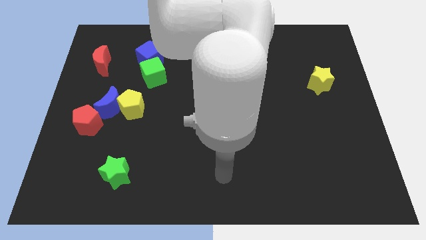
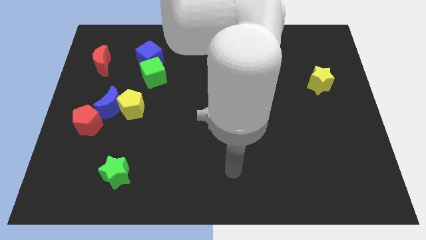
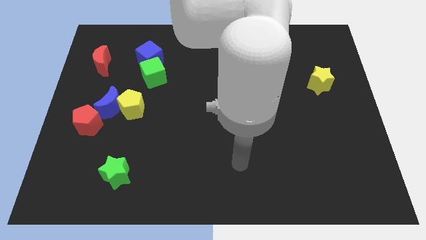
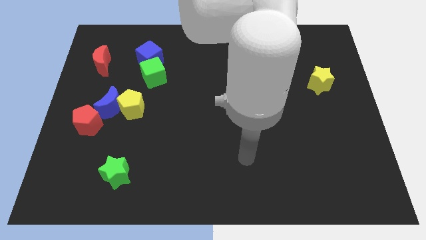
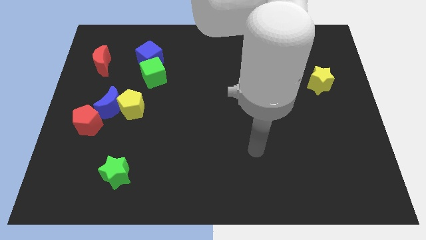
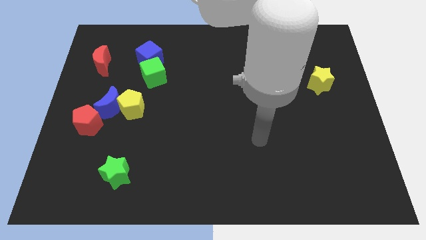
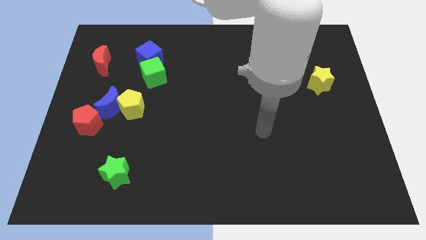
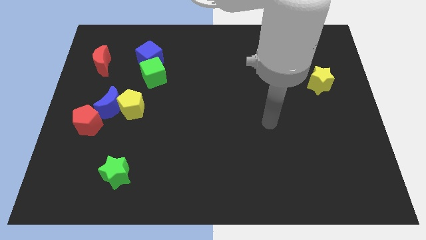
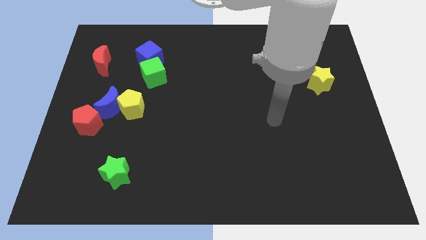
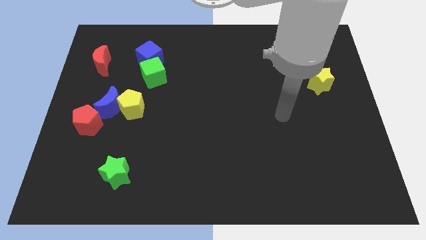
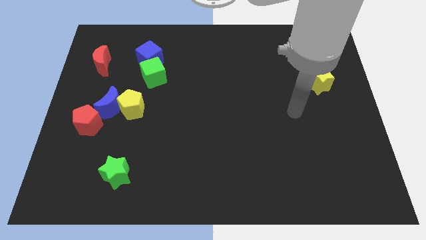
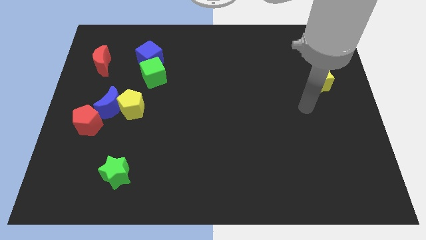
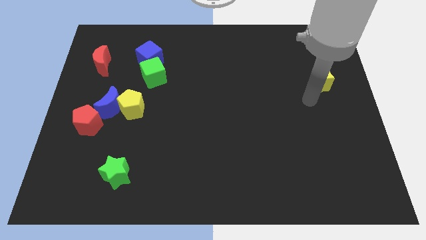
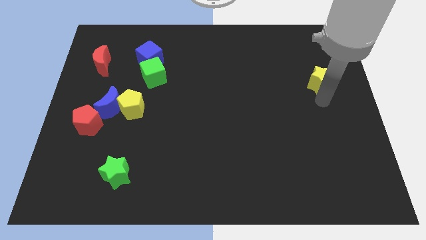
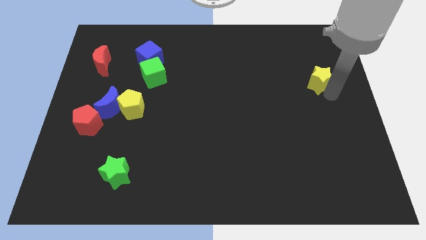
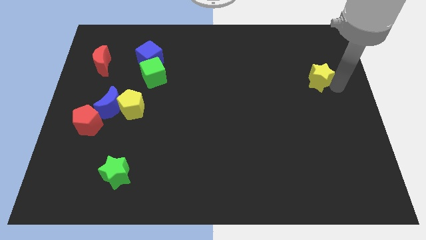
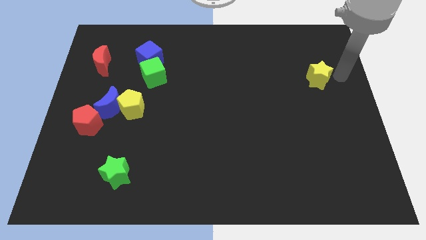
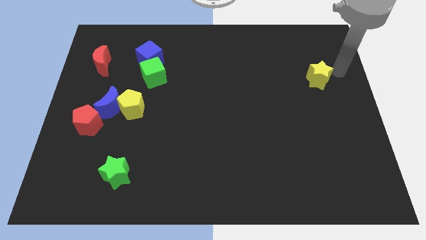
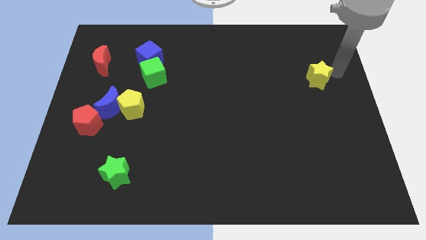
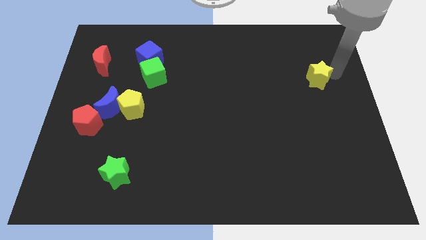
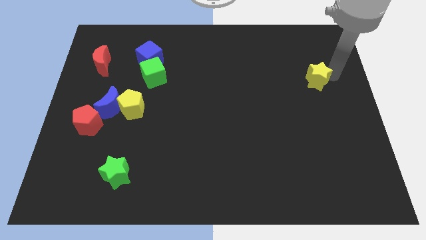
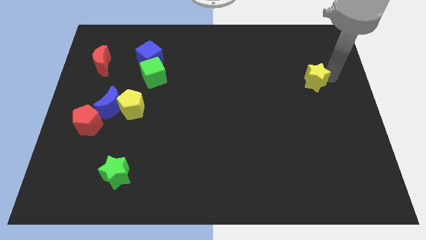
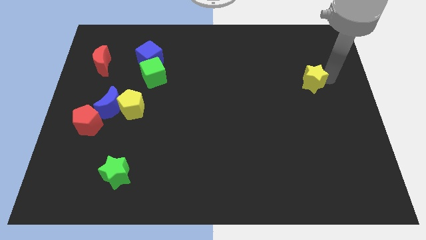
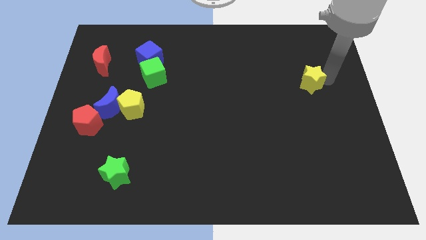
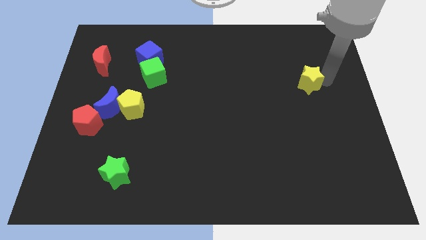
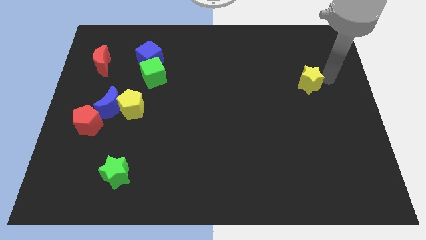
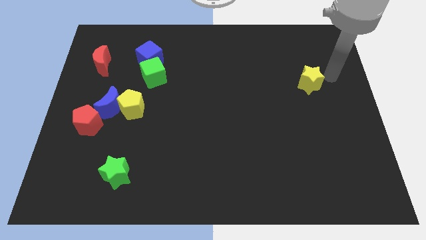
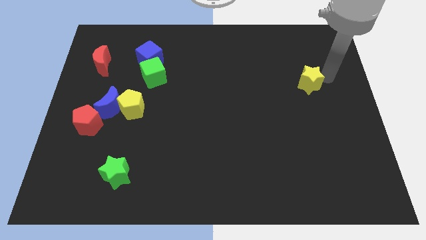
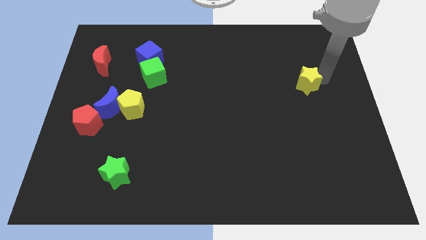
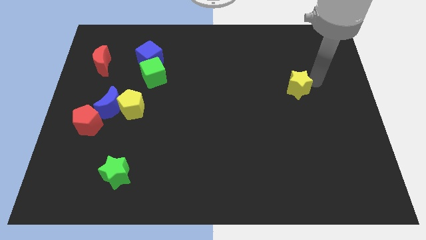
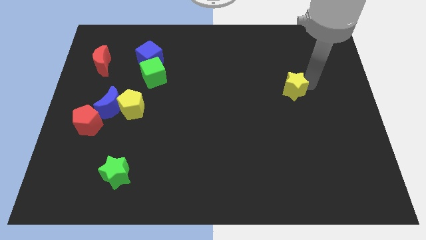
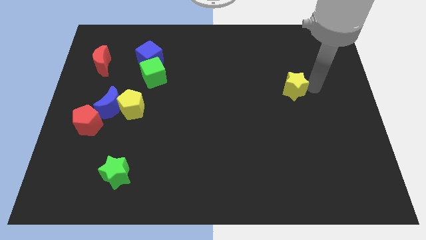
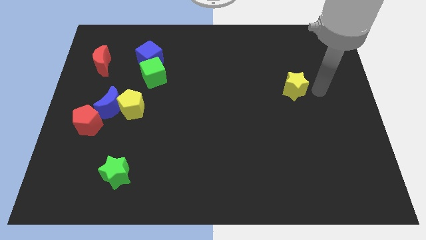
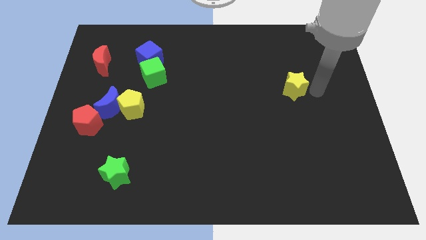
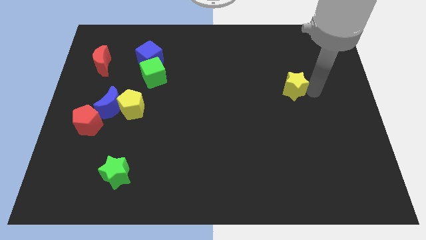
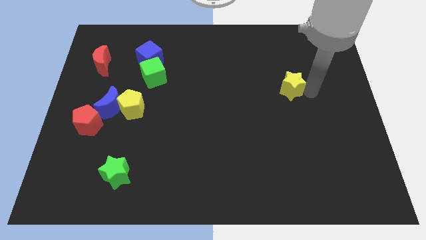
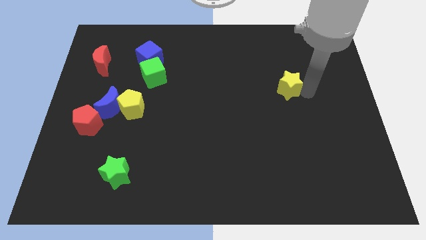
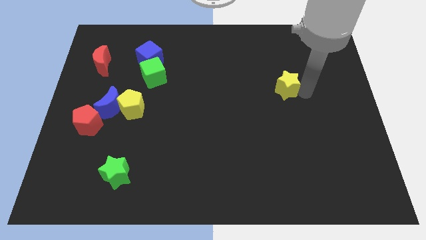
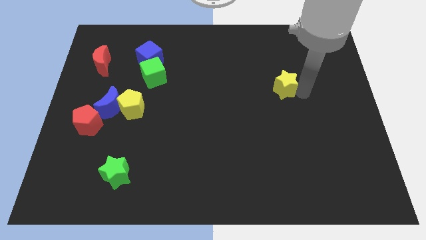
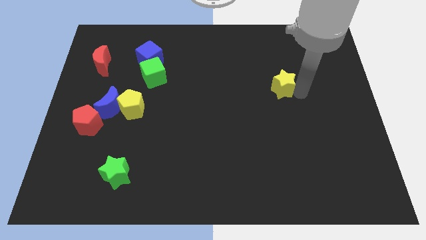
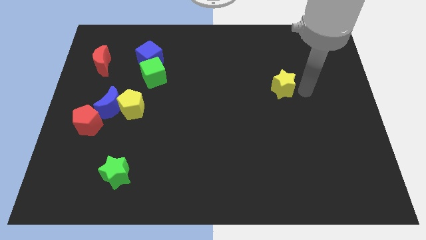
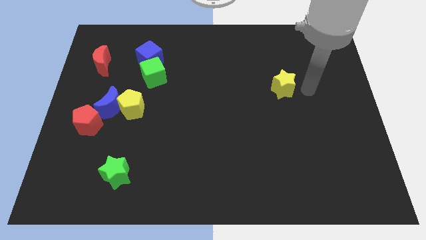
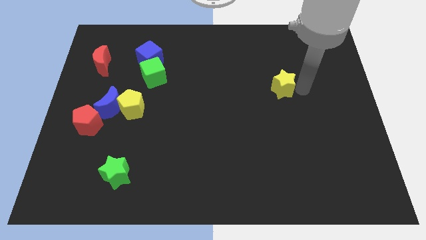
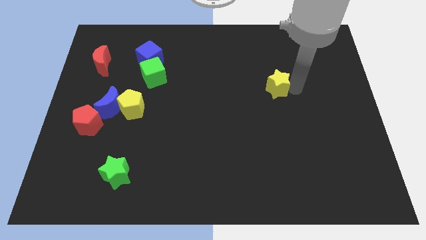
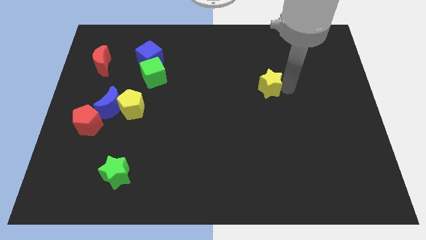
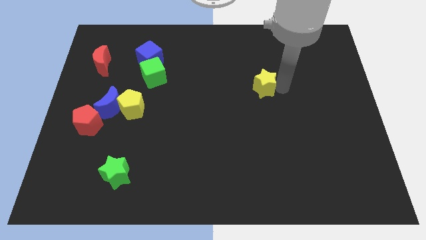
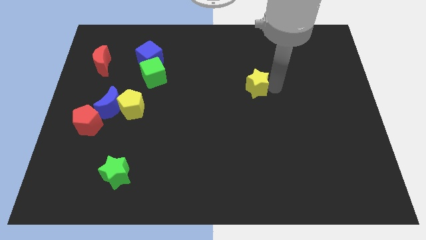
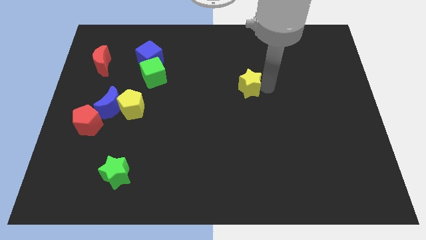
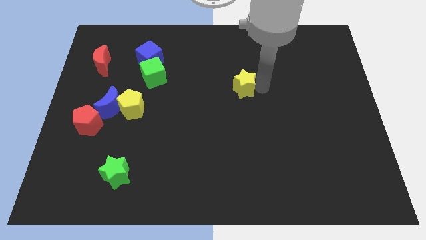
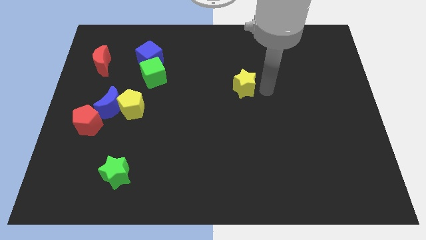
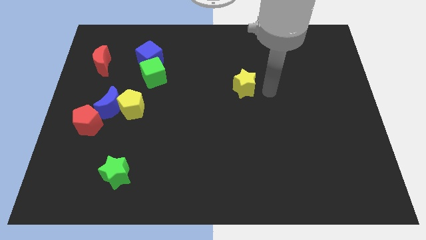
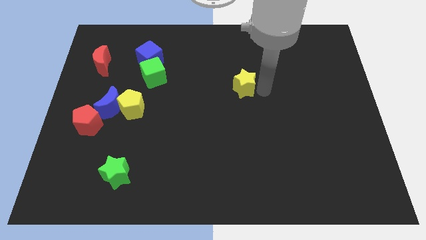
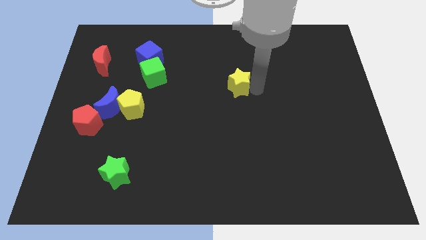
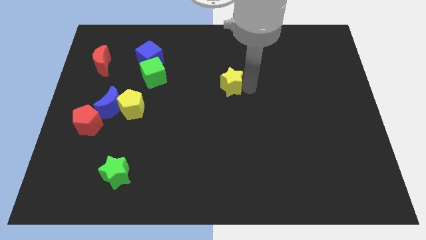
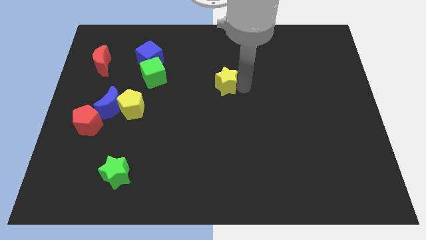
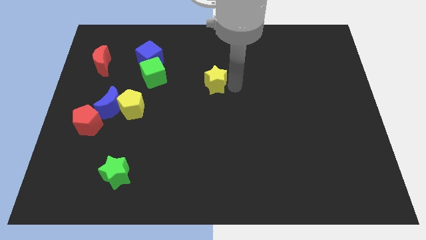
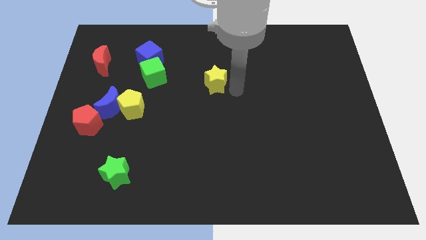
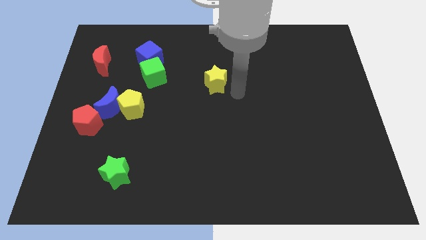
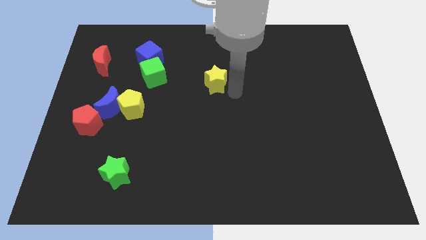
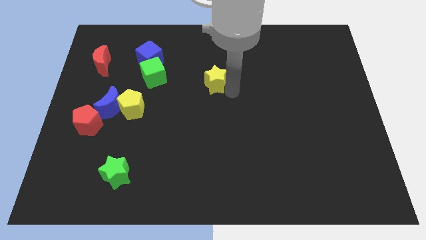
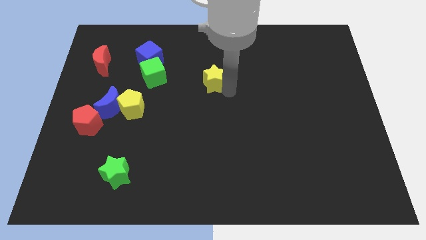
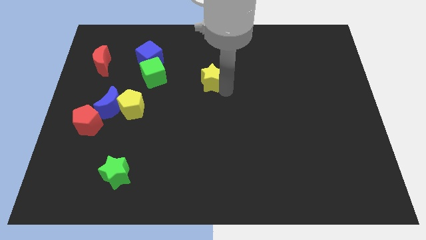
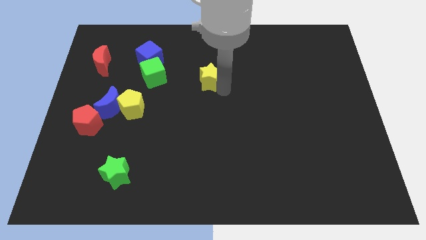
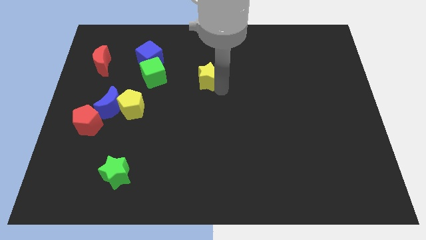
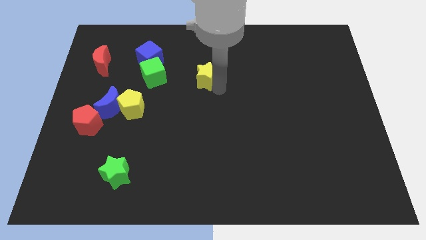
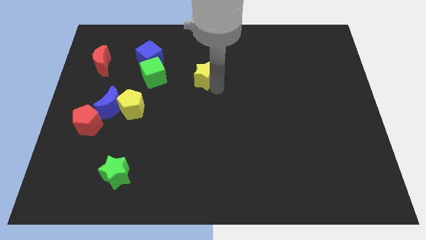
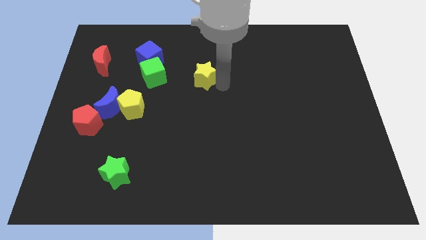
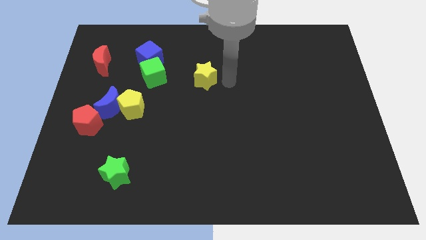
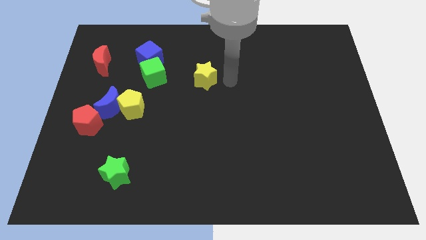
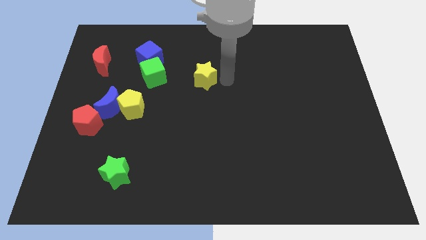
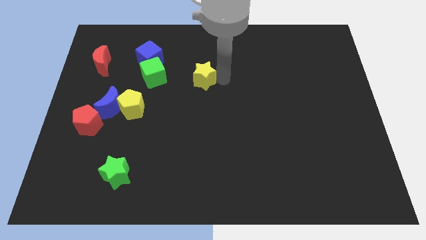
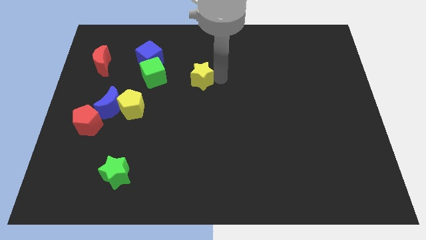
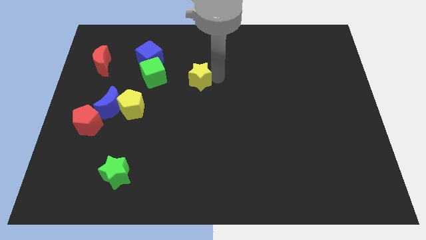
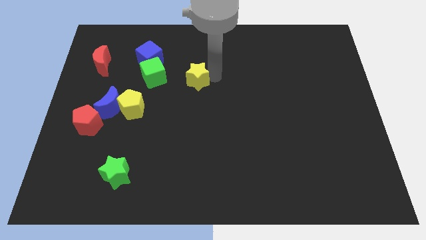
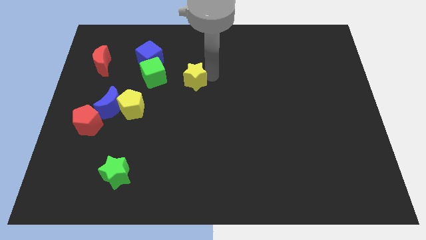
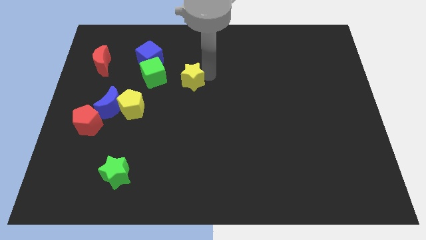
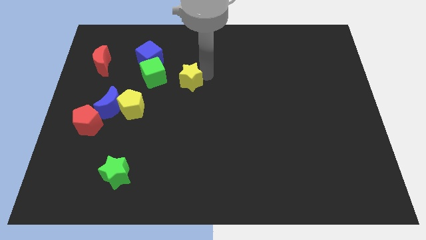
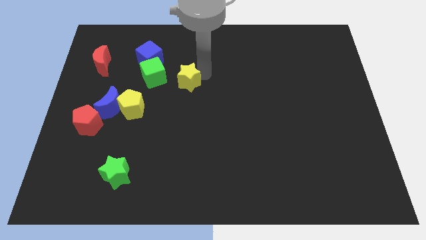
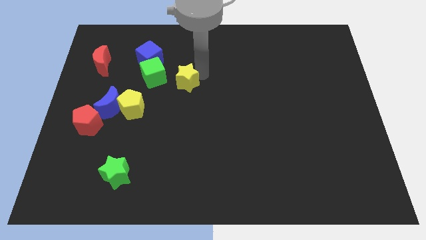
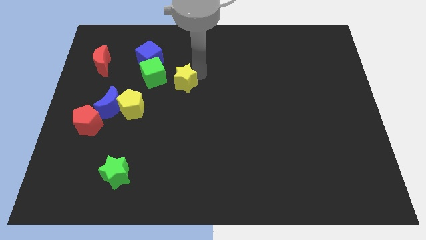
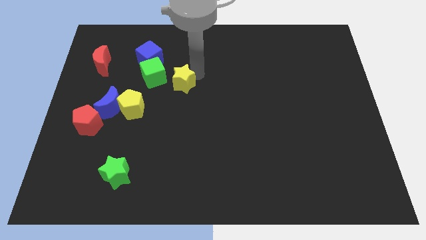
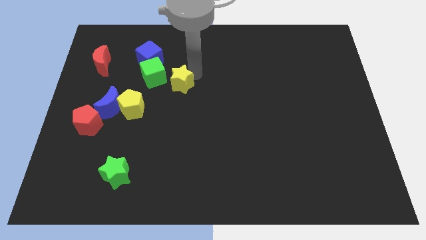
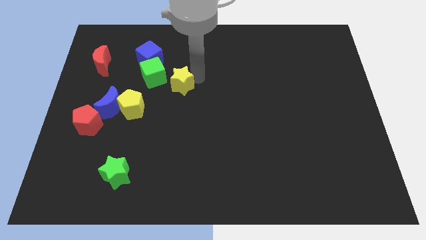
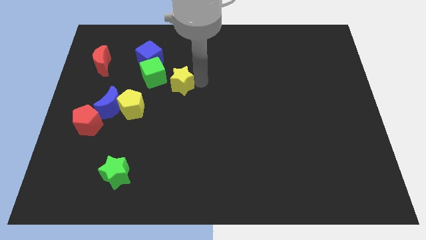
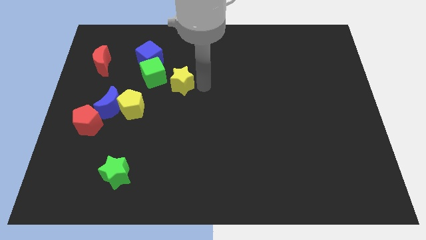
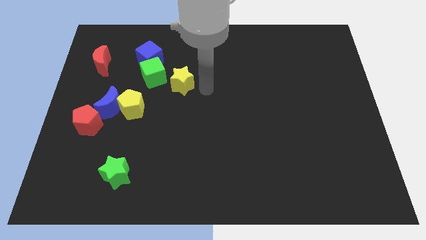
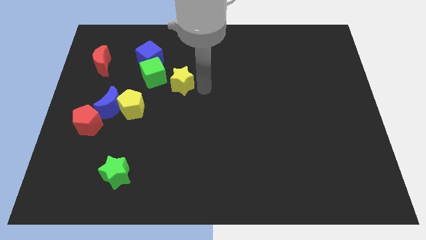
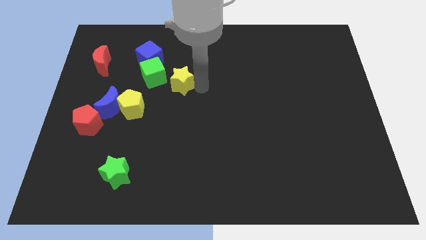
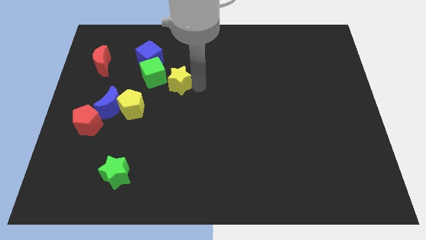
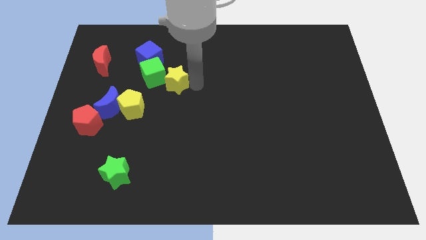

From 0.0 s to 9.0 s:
push the yellow star close to the green cube
